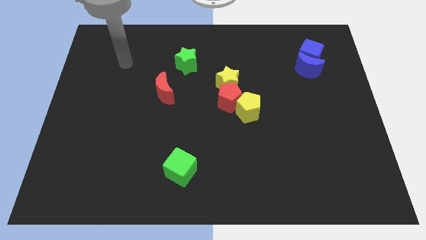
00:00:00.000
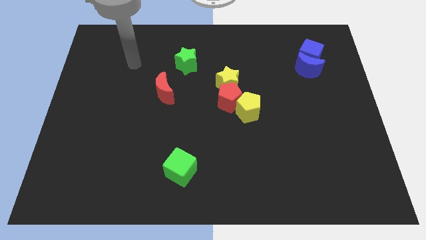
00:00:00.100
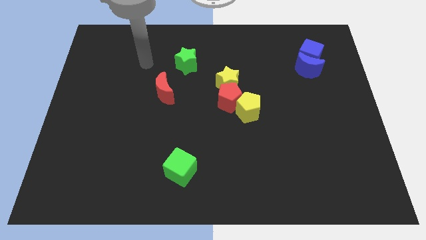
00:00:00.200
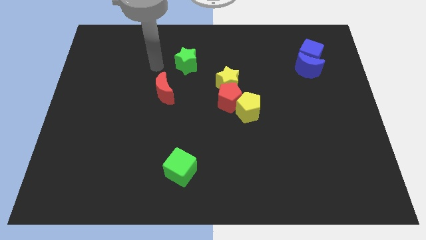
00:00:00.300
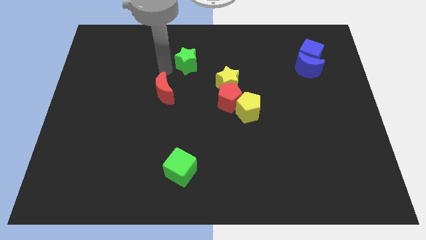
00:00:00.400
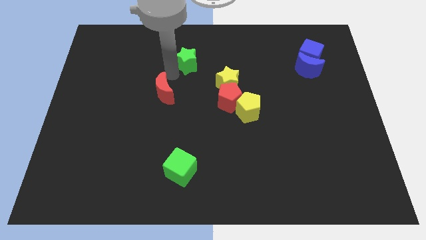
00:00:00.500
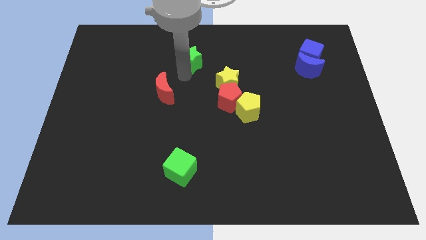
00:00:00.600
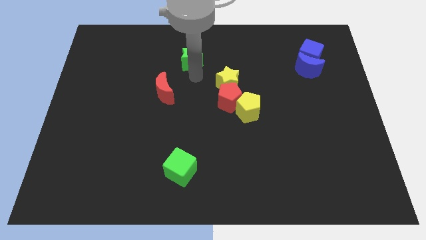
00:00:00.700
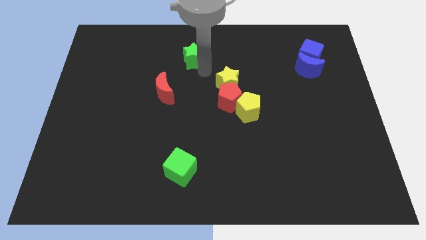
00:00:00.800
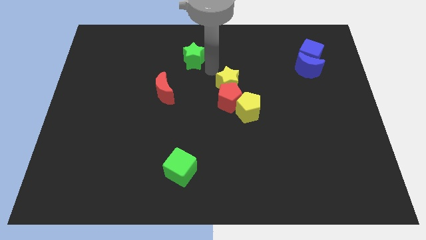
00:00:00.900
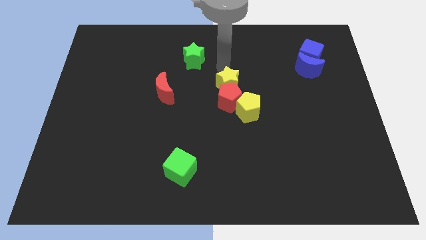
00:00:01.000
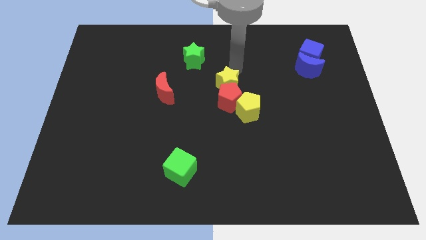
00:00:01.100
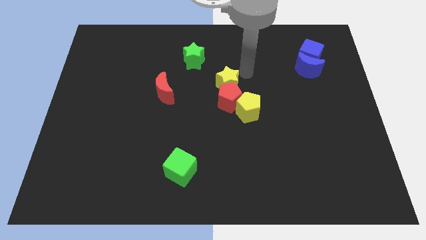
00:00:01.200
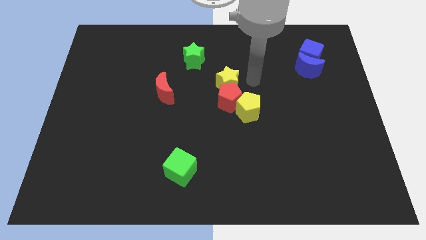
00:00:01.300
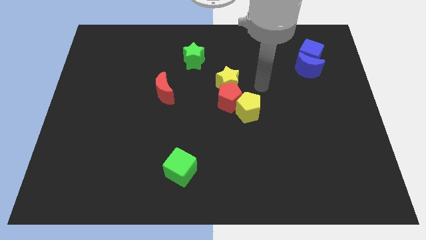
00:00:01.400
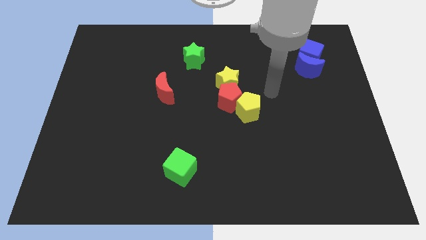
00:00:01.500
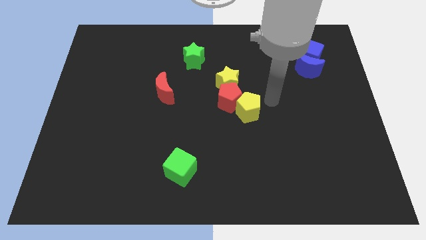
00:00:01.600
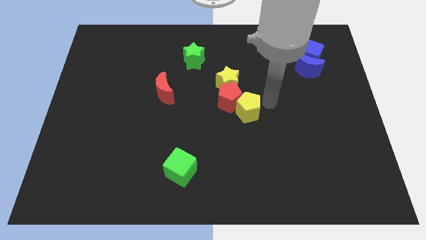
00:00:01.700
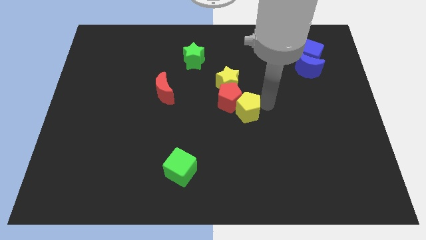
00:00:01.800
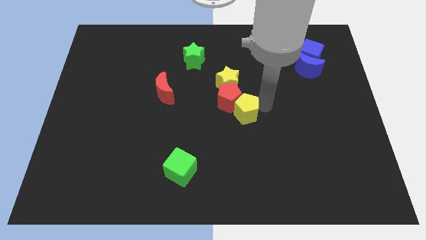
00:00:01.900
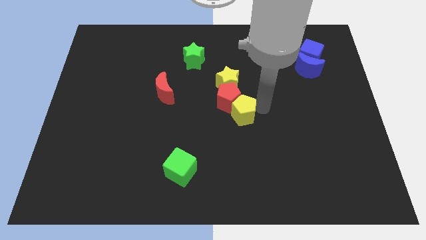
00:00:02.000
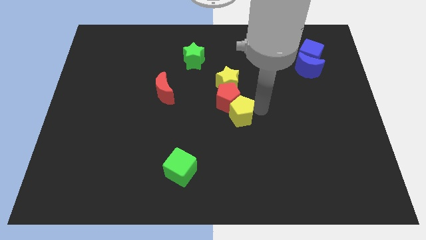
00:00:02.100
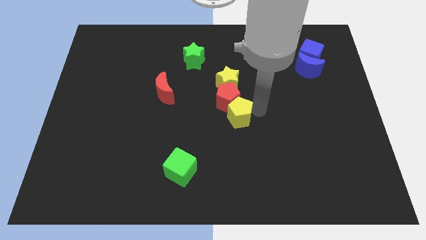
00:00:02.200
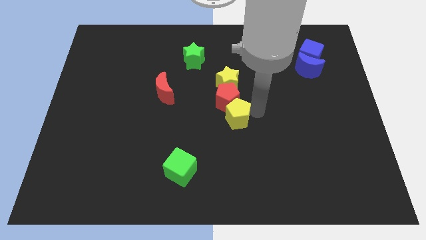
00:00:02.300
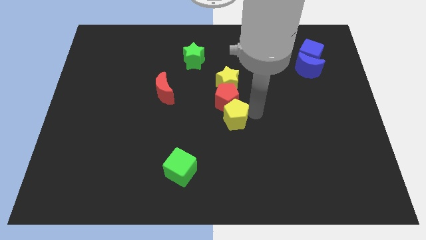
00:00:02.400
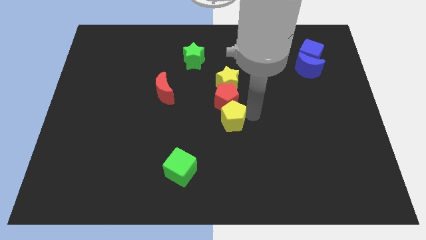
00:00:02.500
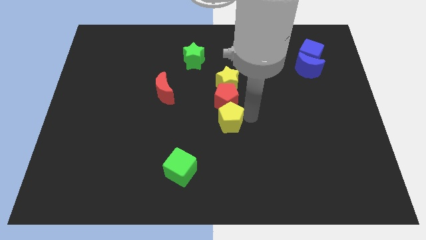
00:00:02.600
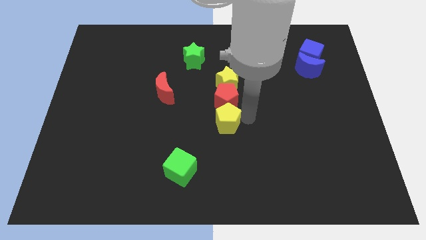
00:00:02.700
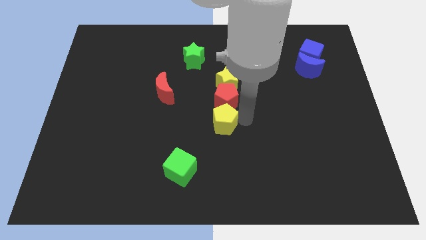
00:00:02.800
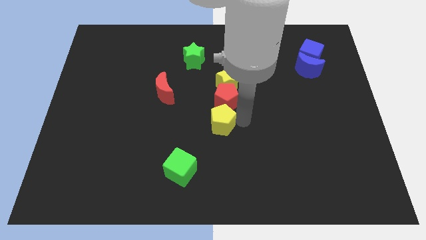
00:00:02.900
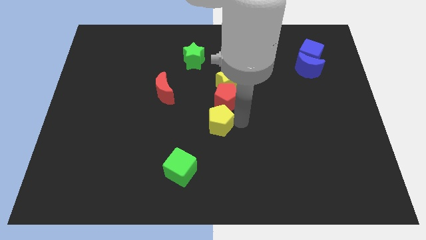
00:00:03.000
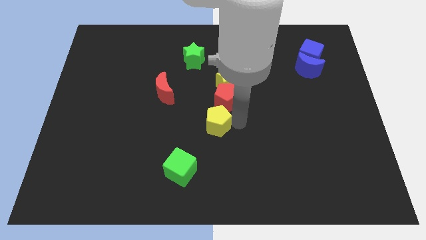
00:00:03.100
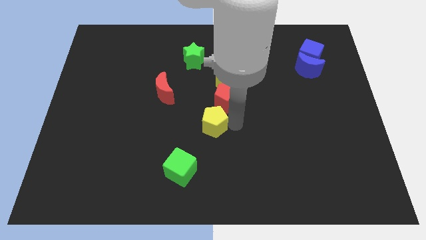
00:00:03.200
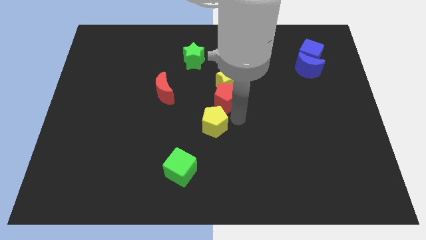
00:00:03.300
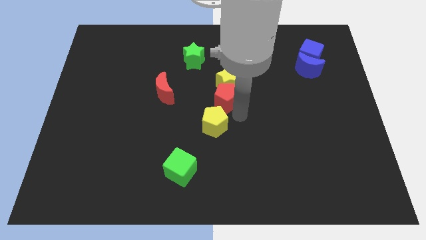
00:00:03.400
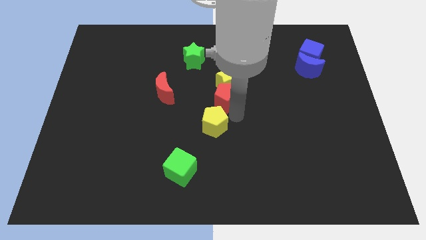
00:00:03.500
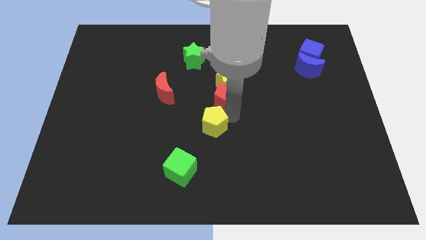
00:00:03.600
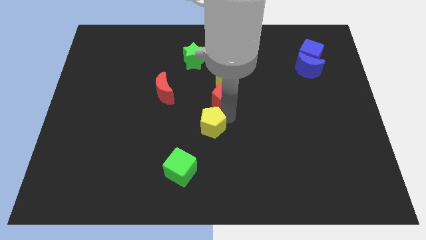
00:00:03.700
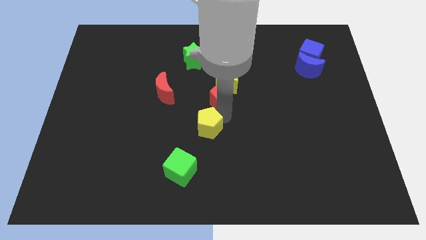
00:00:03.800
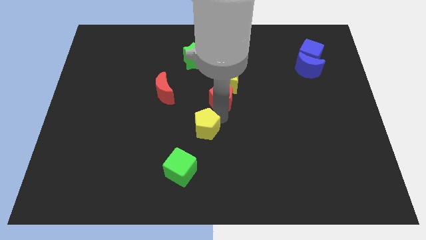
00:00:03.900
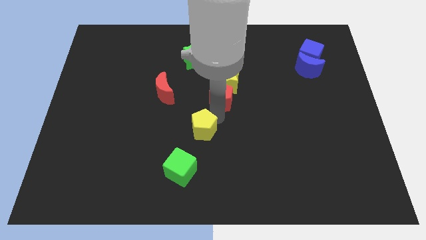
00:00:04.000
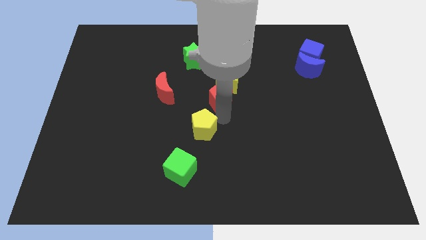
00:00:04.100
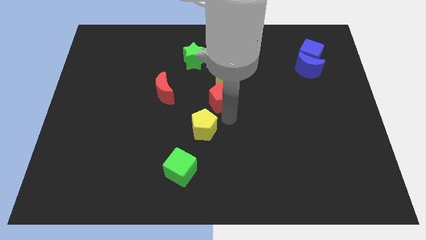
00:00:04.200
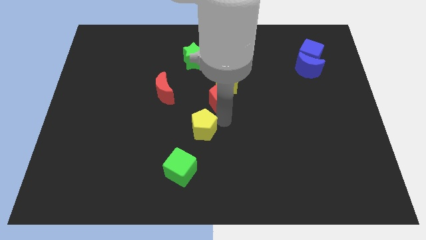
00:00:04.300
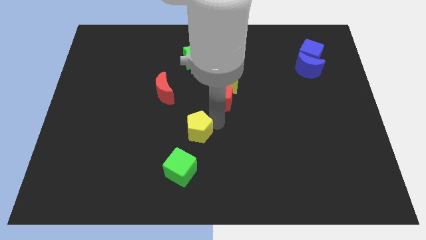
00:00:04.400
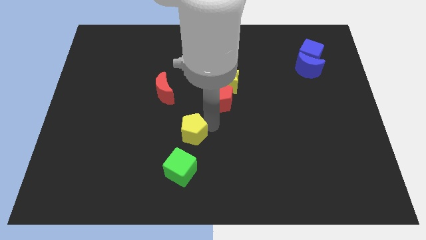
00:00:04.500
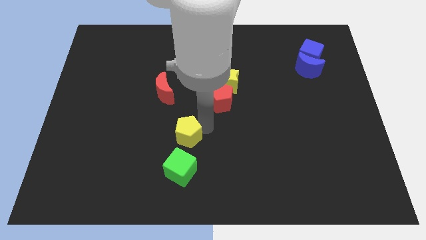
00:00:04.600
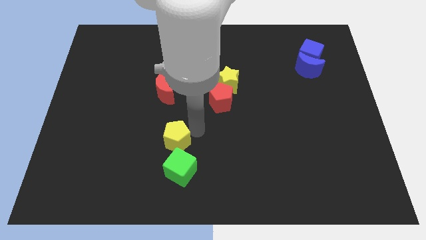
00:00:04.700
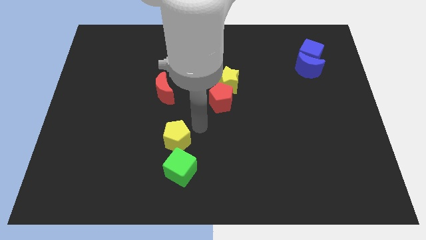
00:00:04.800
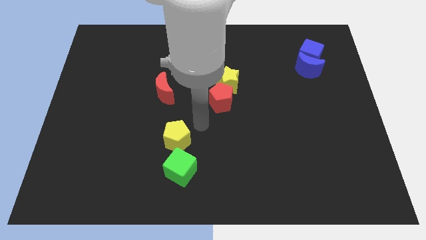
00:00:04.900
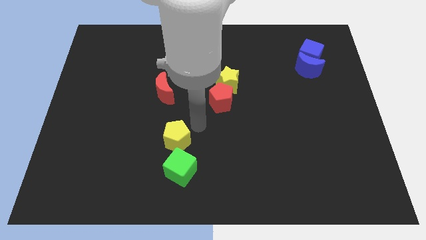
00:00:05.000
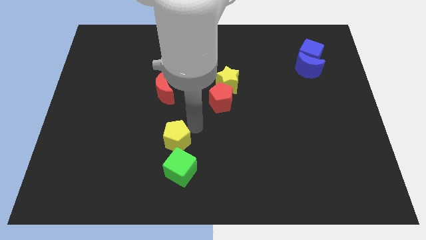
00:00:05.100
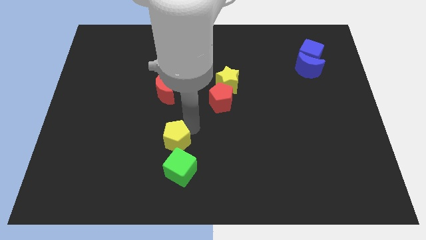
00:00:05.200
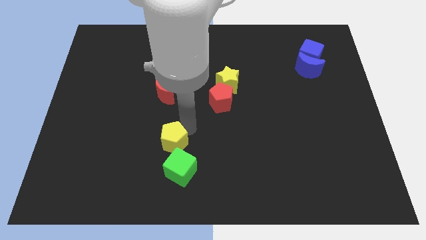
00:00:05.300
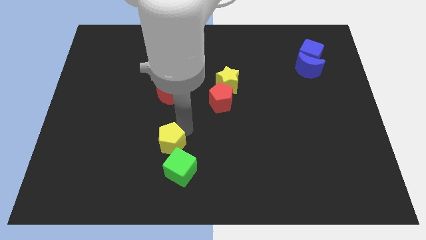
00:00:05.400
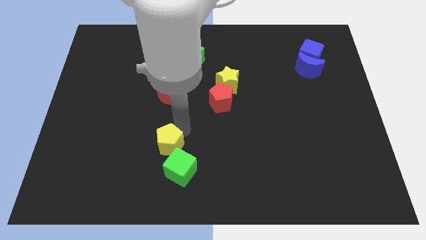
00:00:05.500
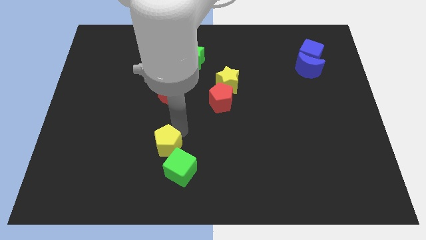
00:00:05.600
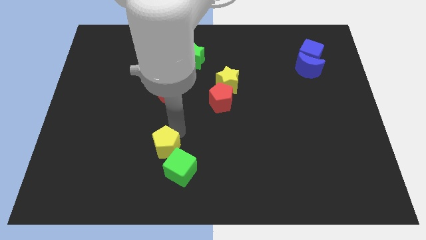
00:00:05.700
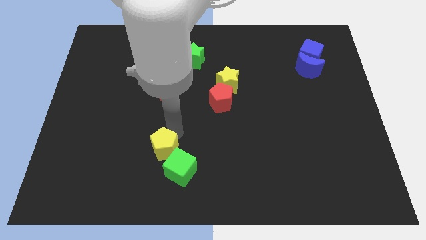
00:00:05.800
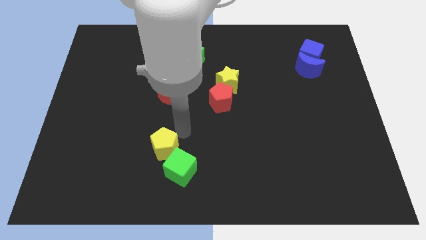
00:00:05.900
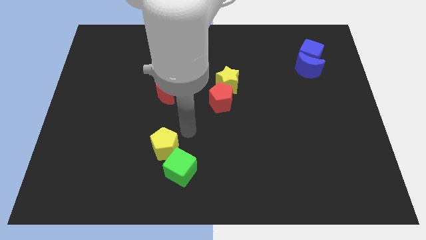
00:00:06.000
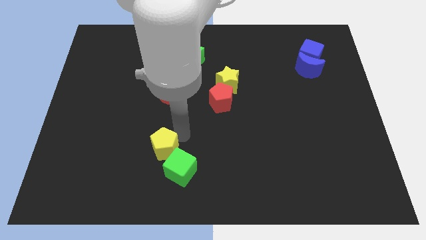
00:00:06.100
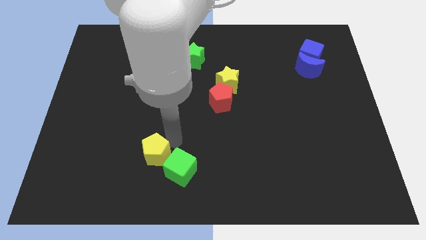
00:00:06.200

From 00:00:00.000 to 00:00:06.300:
put the yellow pentagon to the left of the green cube

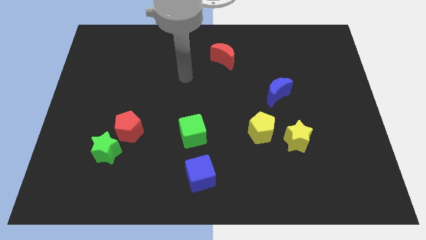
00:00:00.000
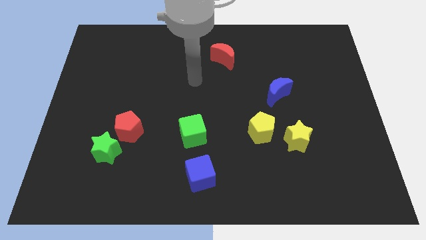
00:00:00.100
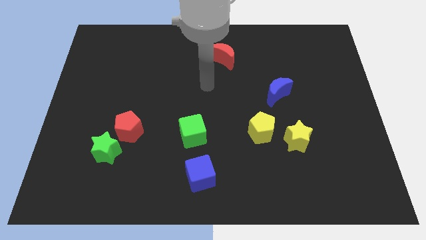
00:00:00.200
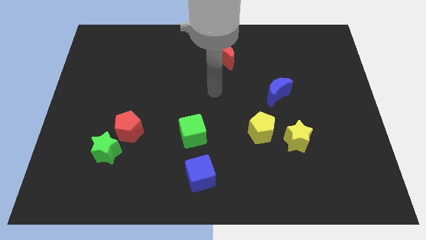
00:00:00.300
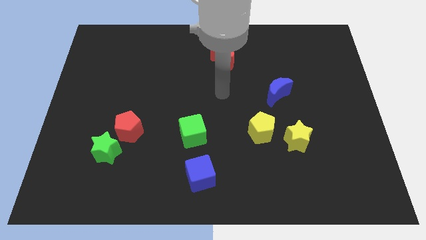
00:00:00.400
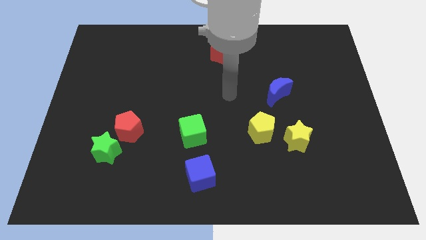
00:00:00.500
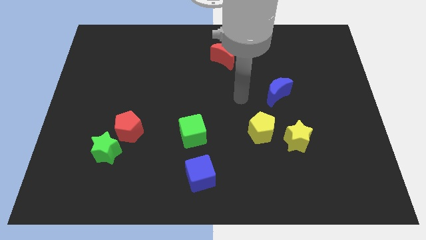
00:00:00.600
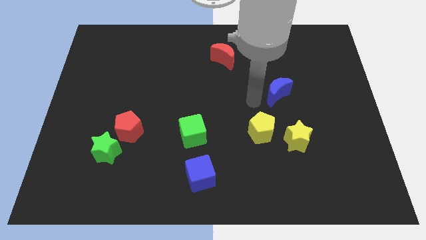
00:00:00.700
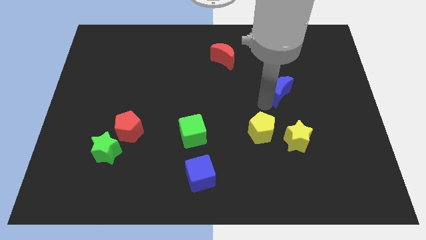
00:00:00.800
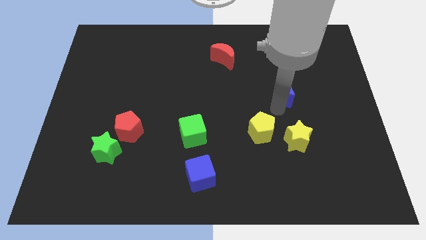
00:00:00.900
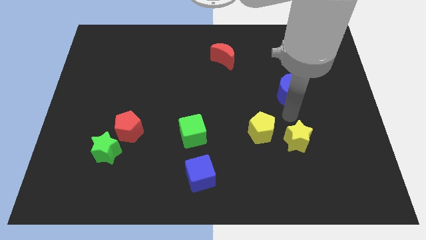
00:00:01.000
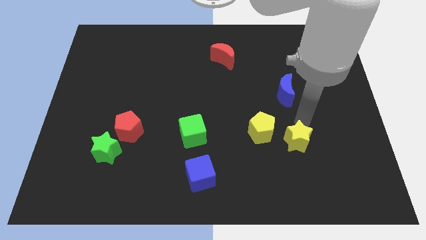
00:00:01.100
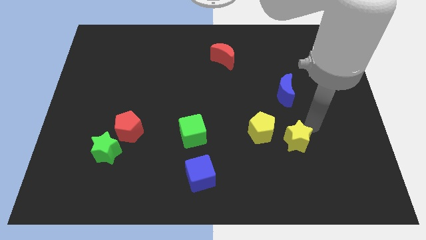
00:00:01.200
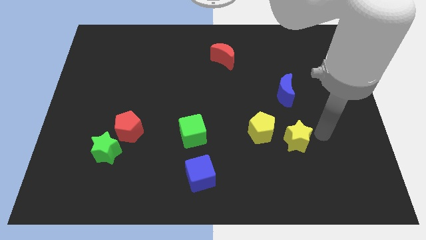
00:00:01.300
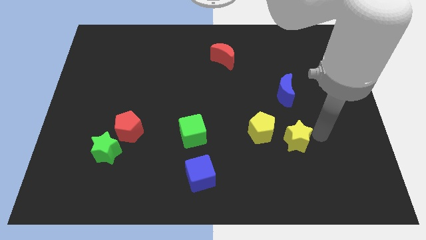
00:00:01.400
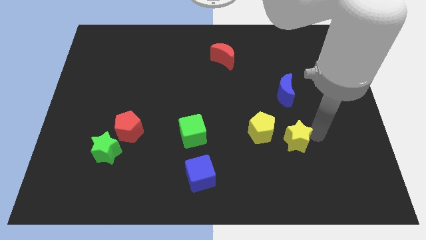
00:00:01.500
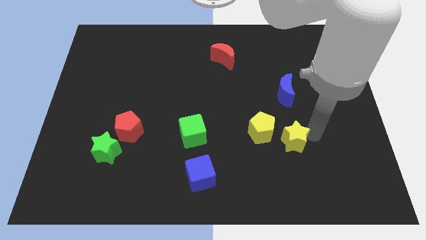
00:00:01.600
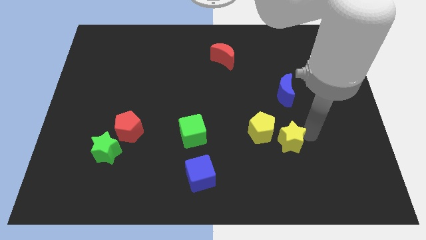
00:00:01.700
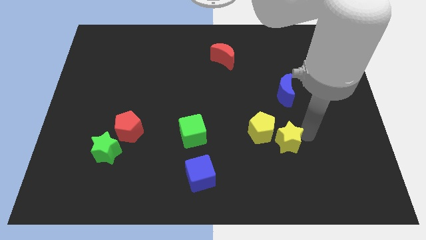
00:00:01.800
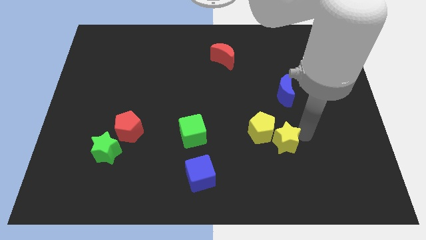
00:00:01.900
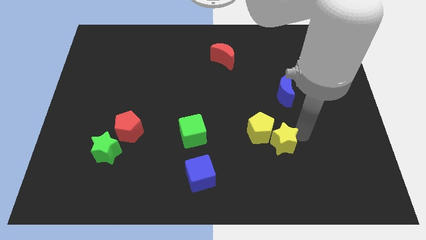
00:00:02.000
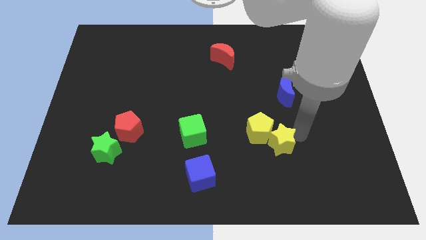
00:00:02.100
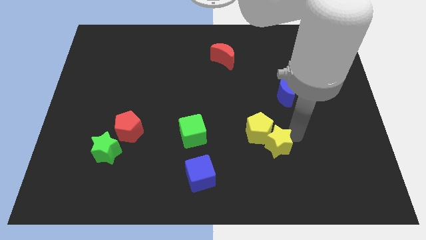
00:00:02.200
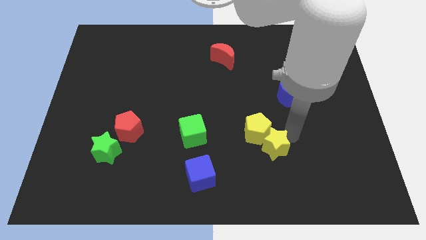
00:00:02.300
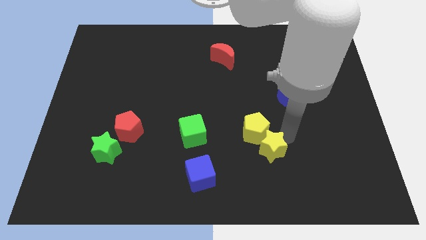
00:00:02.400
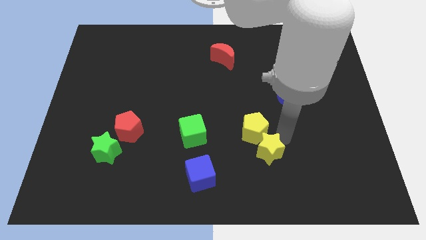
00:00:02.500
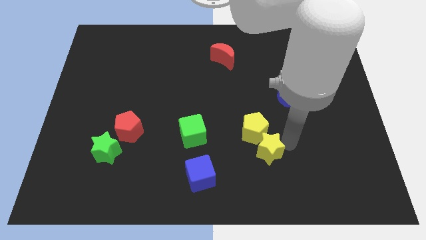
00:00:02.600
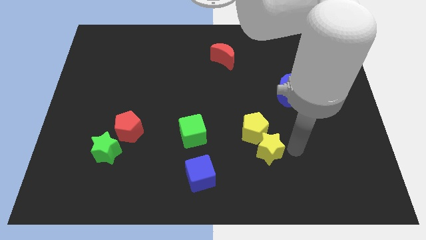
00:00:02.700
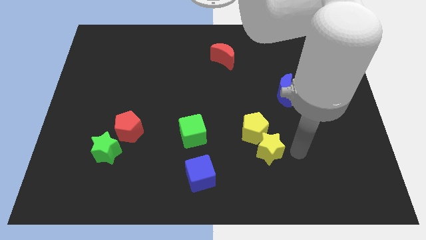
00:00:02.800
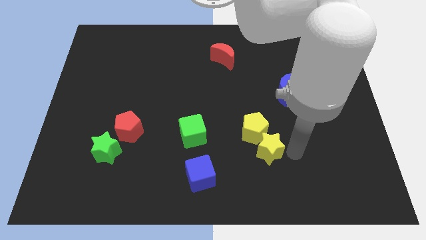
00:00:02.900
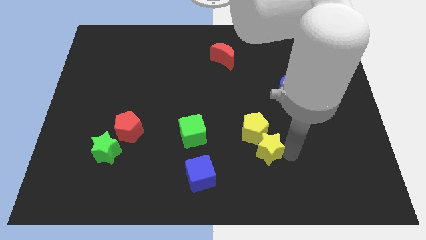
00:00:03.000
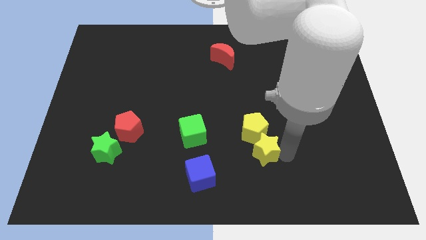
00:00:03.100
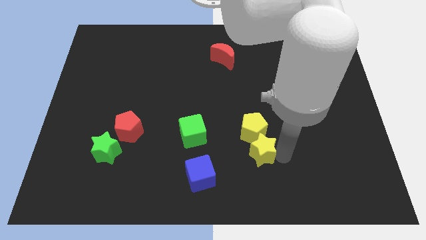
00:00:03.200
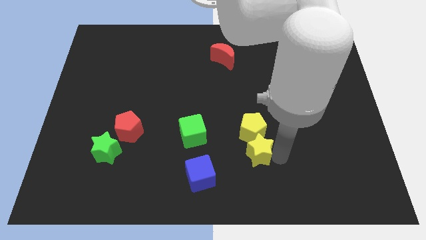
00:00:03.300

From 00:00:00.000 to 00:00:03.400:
put the yellow star diagonally down and to the left of the yellow pentagon
